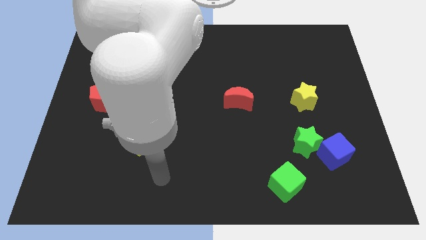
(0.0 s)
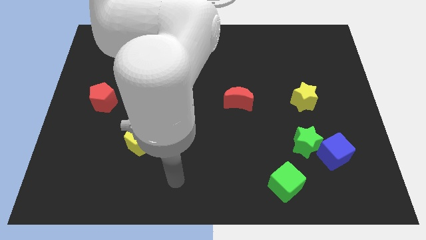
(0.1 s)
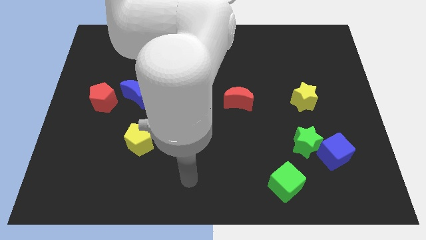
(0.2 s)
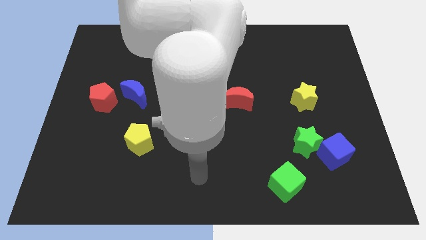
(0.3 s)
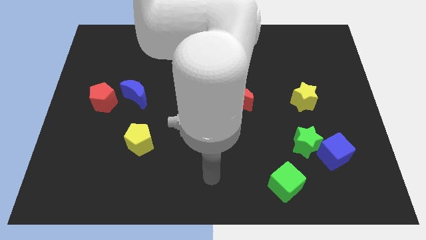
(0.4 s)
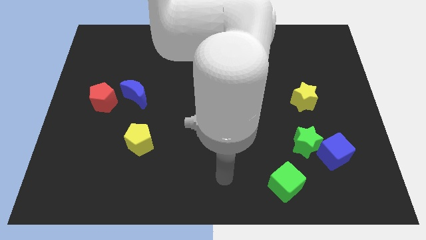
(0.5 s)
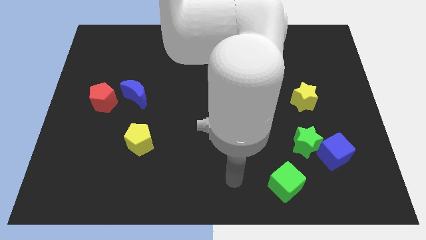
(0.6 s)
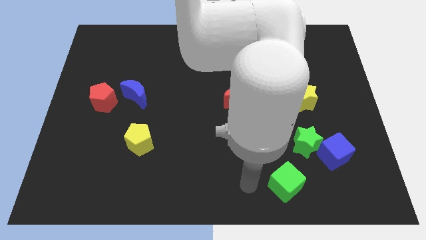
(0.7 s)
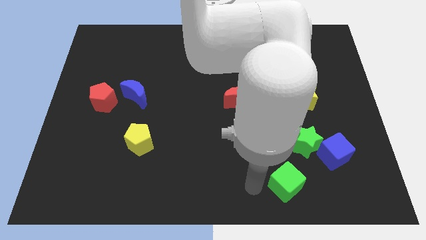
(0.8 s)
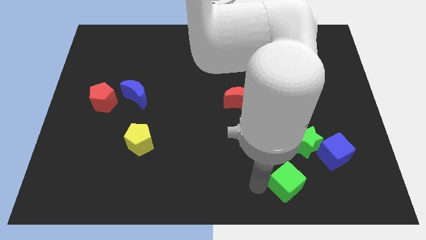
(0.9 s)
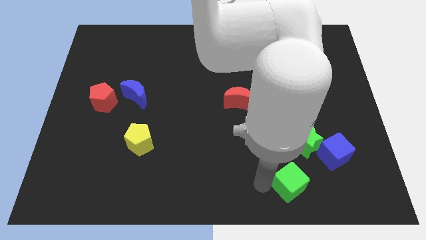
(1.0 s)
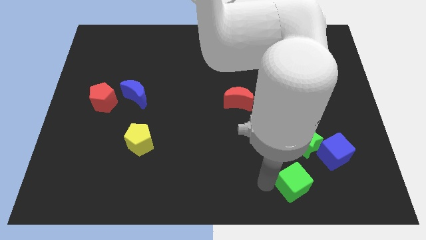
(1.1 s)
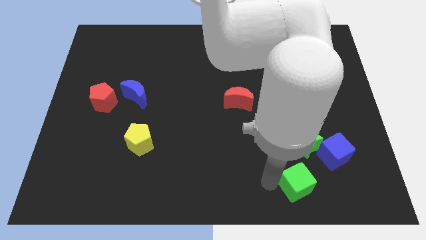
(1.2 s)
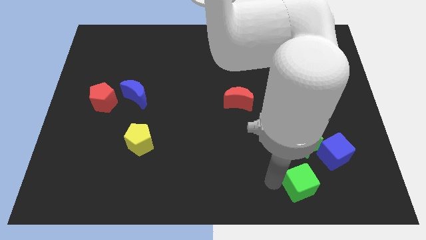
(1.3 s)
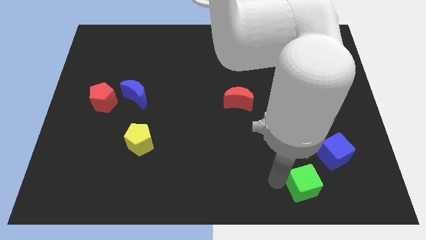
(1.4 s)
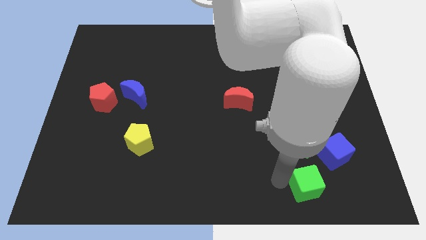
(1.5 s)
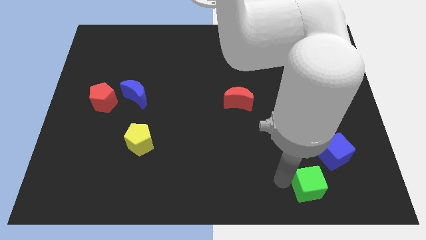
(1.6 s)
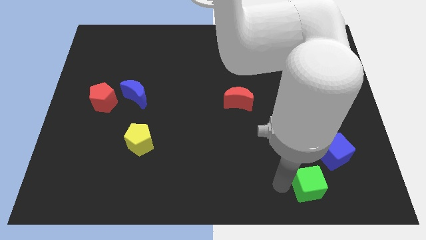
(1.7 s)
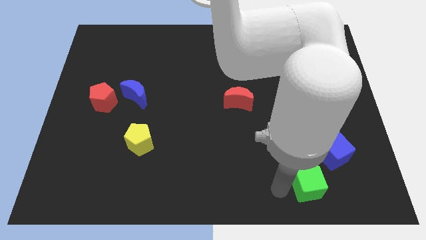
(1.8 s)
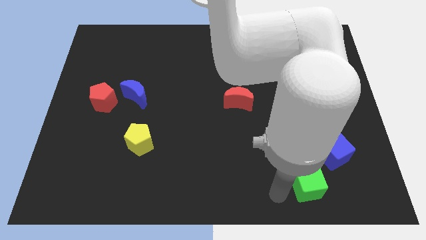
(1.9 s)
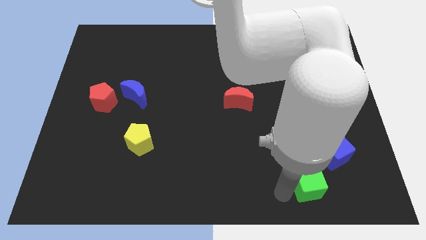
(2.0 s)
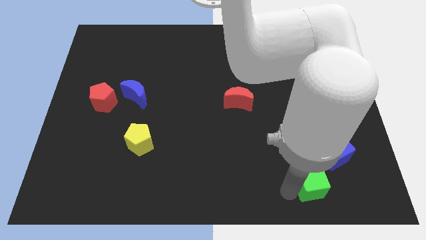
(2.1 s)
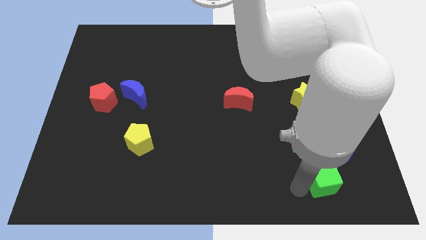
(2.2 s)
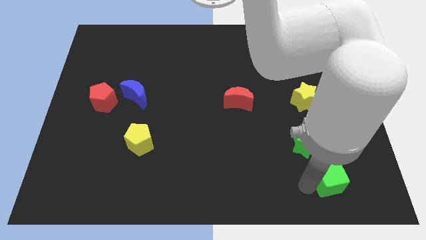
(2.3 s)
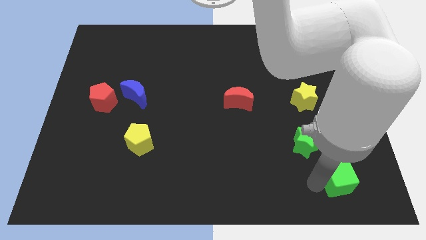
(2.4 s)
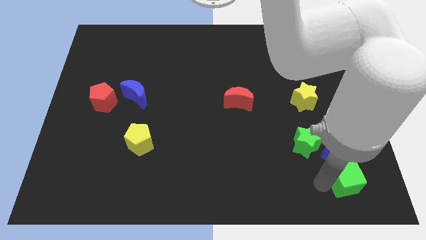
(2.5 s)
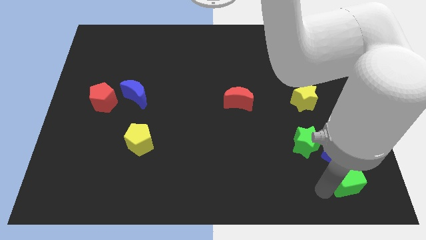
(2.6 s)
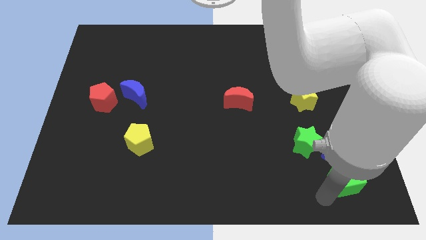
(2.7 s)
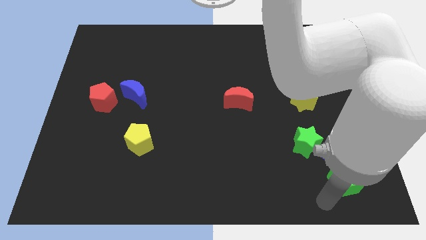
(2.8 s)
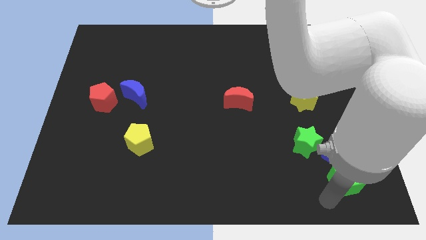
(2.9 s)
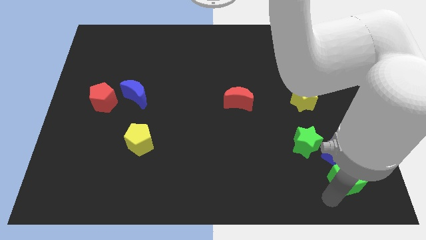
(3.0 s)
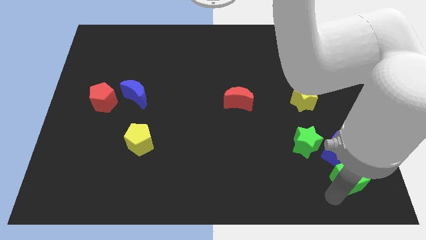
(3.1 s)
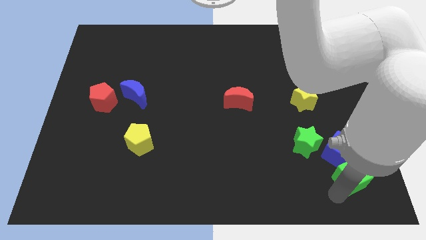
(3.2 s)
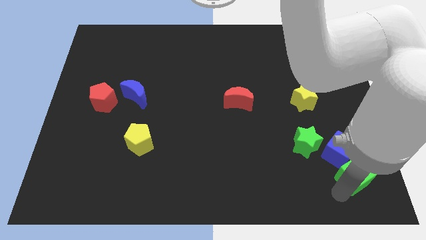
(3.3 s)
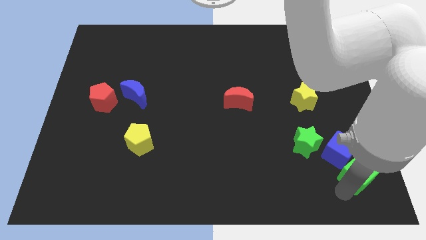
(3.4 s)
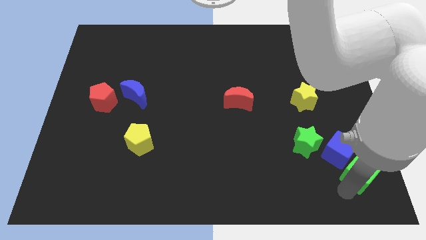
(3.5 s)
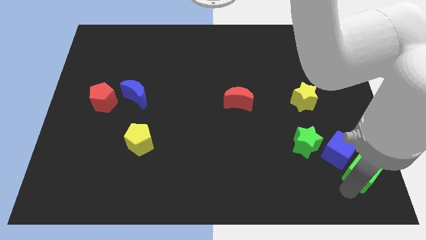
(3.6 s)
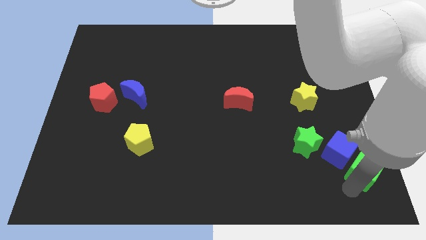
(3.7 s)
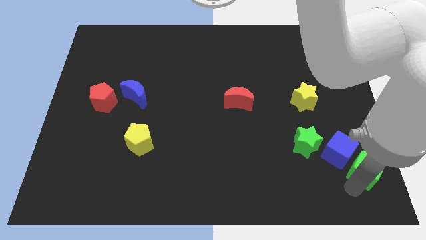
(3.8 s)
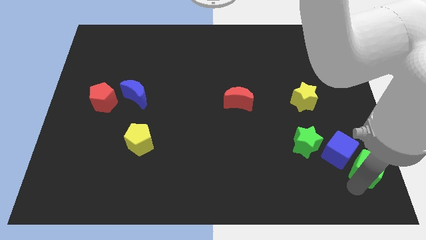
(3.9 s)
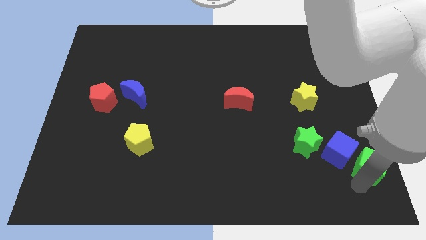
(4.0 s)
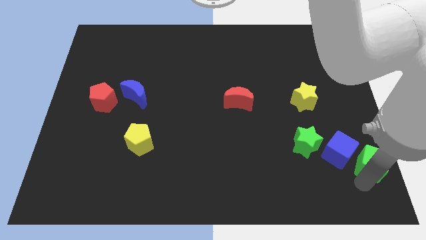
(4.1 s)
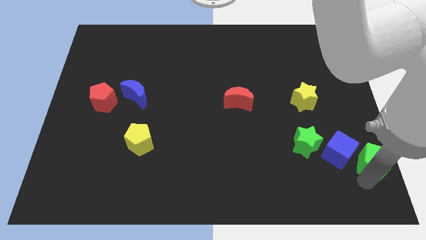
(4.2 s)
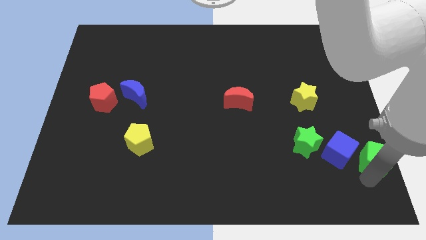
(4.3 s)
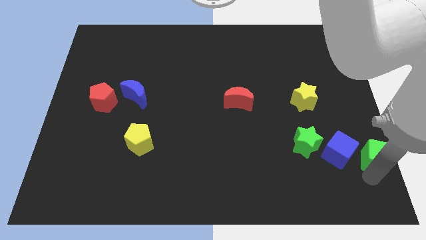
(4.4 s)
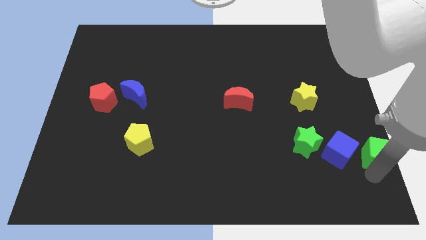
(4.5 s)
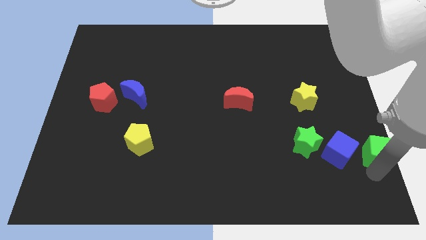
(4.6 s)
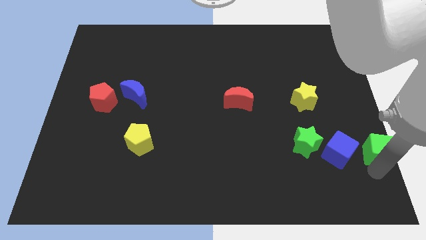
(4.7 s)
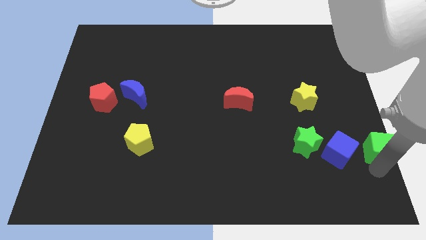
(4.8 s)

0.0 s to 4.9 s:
slide the green cube to the center right

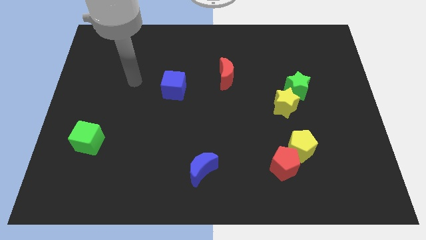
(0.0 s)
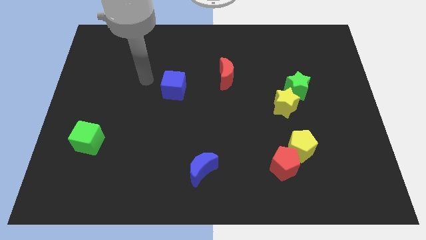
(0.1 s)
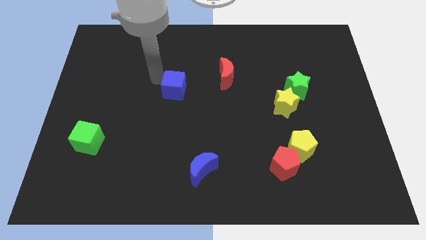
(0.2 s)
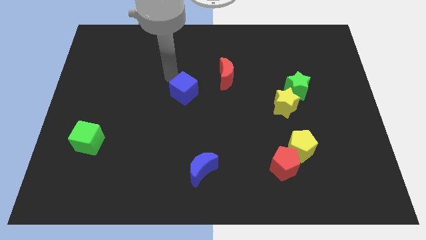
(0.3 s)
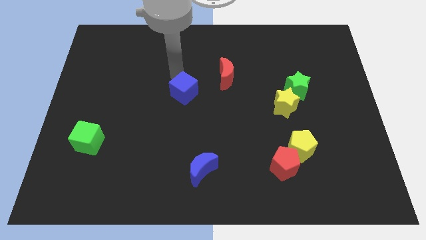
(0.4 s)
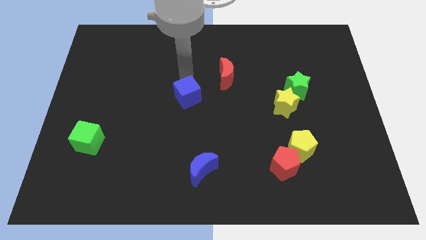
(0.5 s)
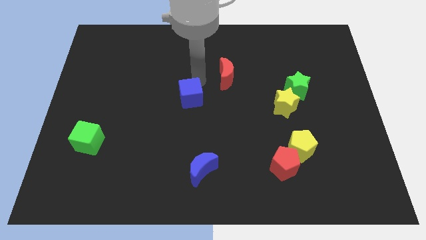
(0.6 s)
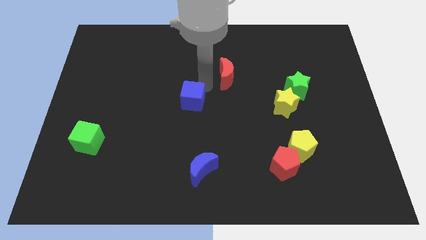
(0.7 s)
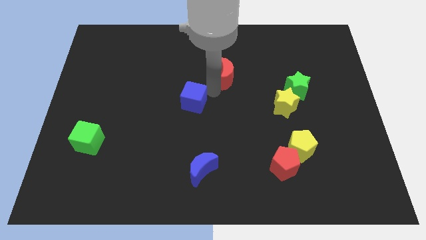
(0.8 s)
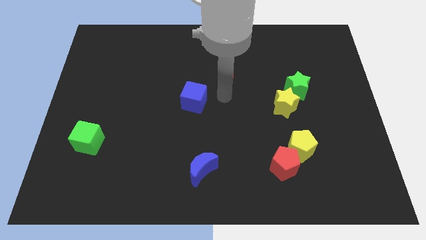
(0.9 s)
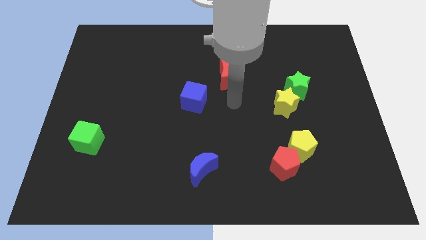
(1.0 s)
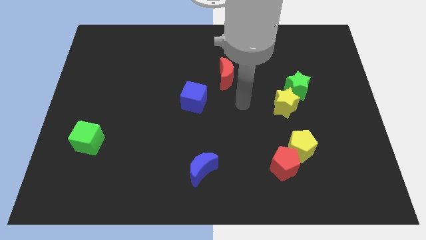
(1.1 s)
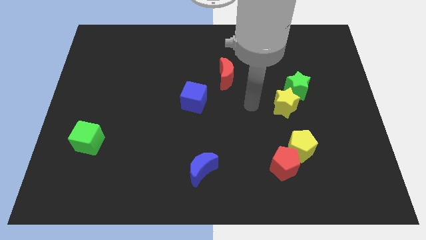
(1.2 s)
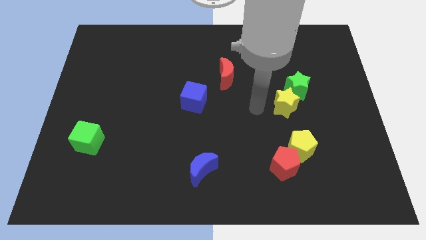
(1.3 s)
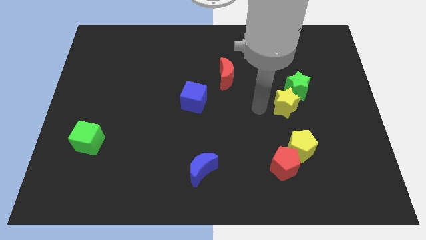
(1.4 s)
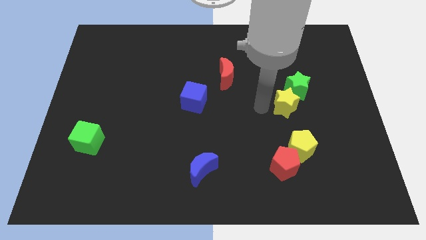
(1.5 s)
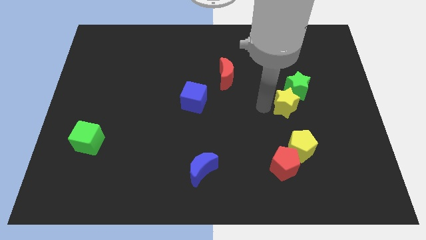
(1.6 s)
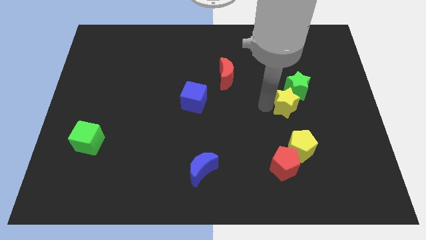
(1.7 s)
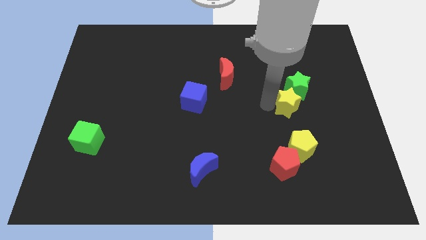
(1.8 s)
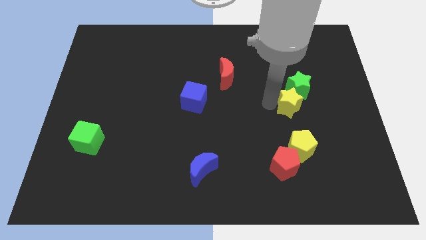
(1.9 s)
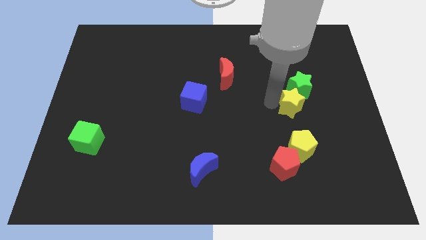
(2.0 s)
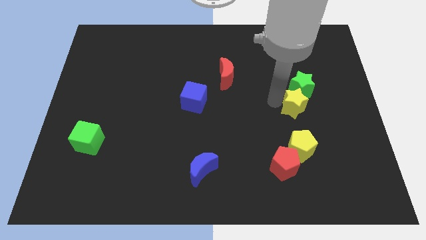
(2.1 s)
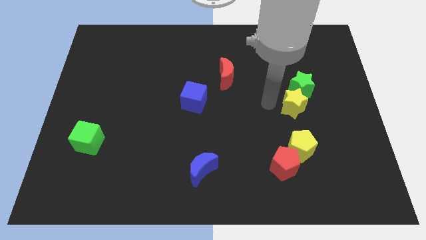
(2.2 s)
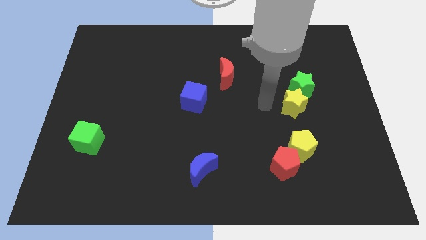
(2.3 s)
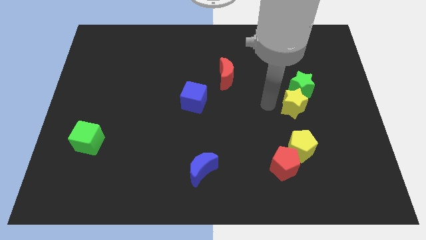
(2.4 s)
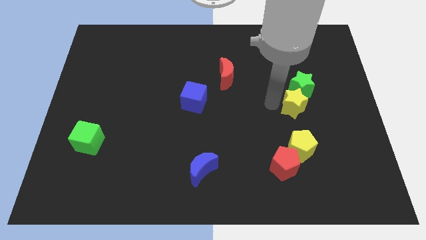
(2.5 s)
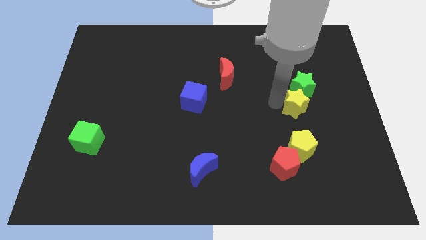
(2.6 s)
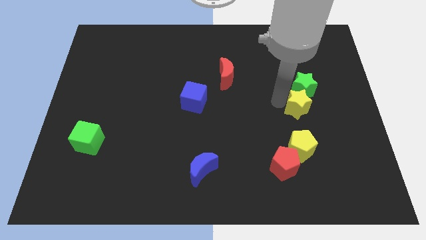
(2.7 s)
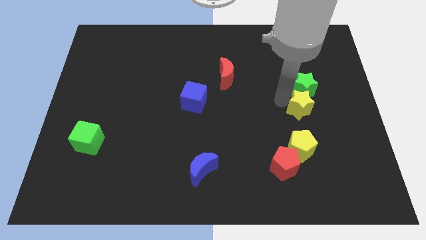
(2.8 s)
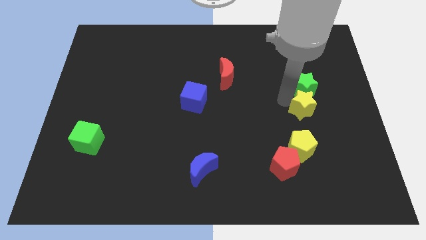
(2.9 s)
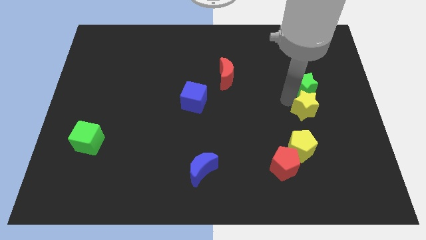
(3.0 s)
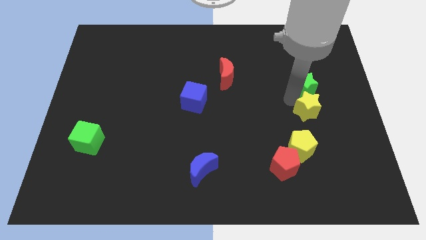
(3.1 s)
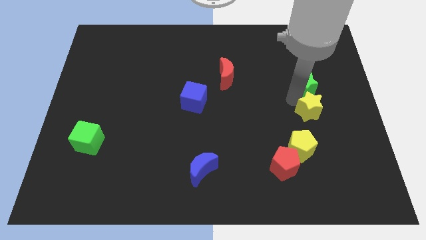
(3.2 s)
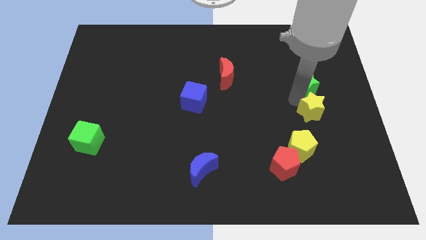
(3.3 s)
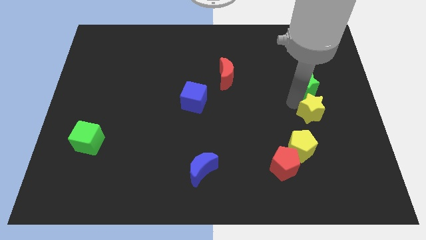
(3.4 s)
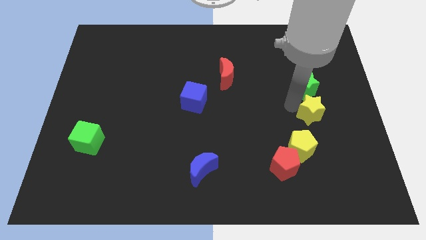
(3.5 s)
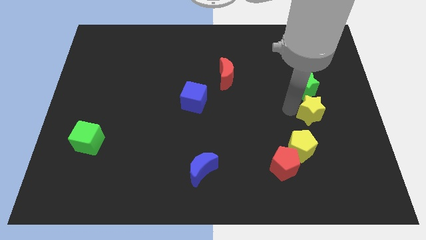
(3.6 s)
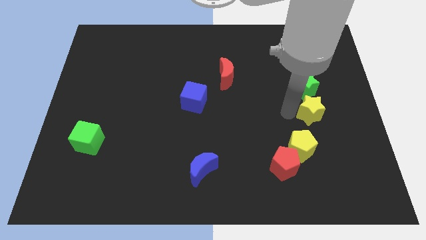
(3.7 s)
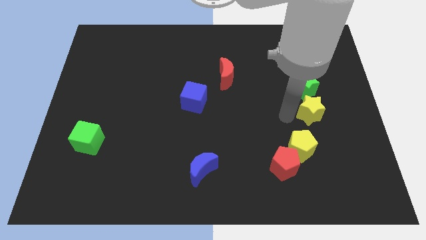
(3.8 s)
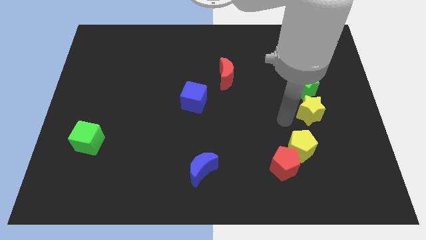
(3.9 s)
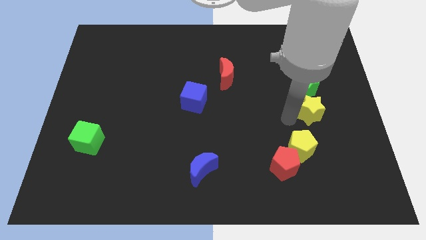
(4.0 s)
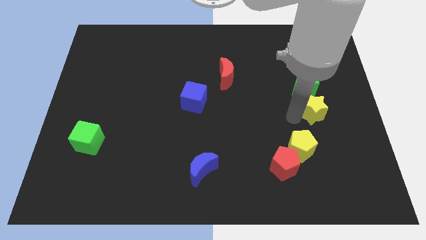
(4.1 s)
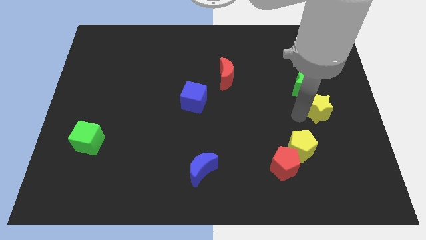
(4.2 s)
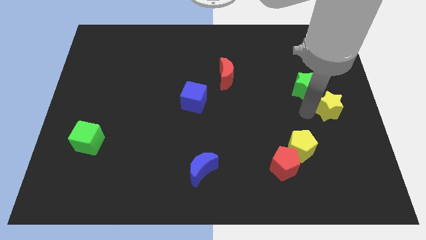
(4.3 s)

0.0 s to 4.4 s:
push the yellow star to the center right
